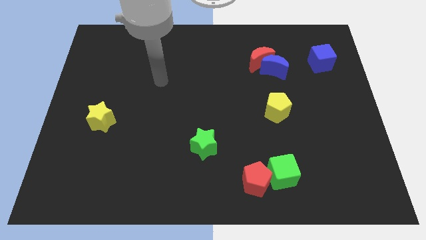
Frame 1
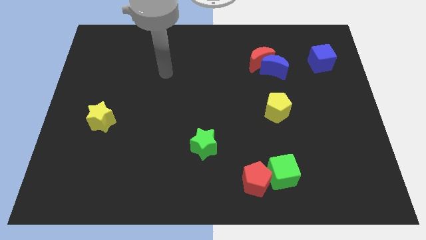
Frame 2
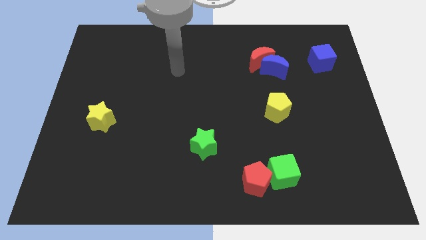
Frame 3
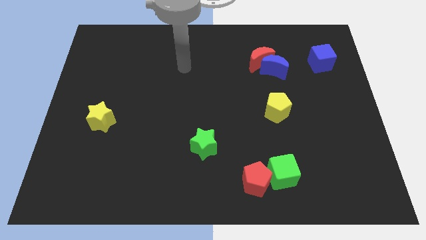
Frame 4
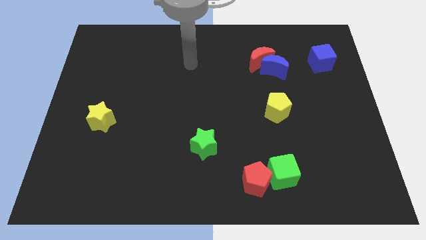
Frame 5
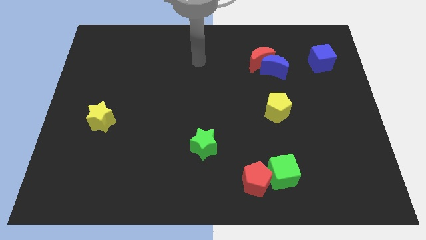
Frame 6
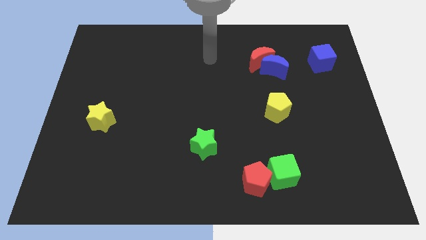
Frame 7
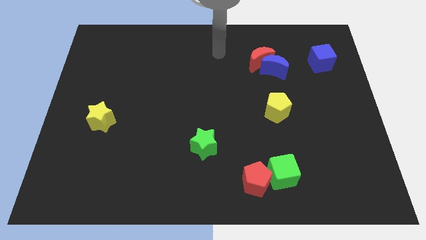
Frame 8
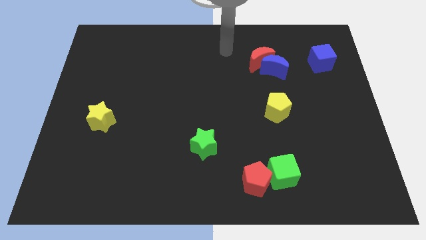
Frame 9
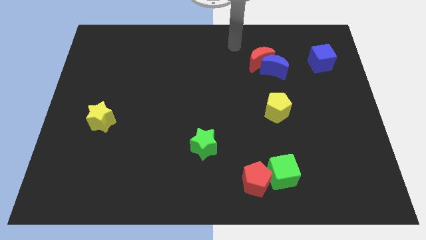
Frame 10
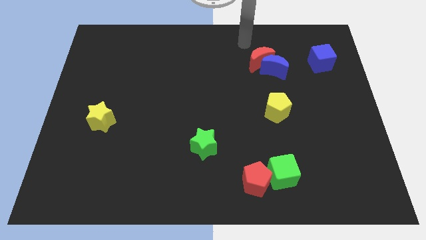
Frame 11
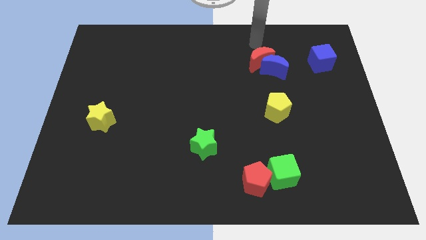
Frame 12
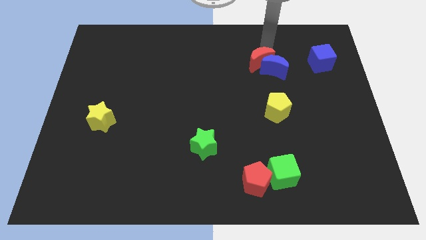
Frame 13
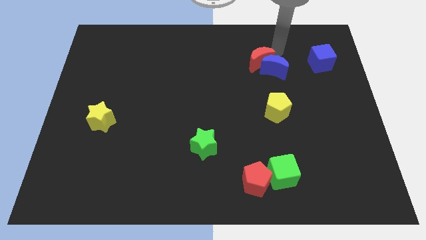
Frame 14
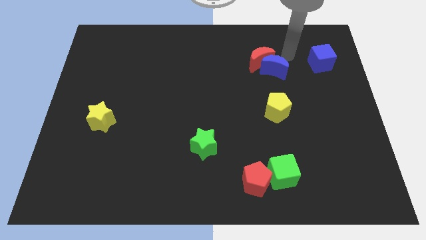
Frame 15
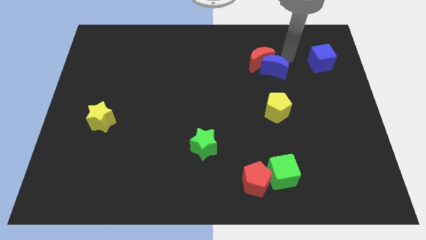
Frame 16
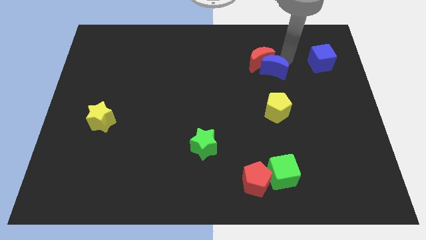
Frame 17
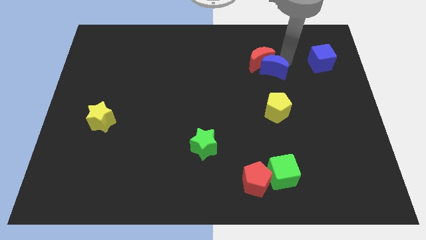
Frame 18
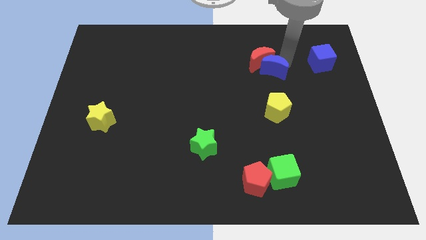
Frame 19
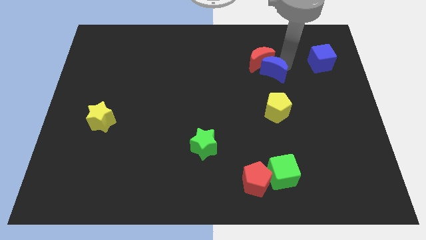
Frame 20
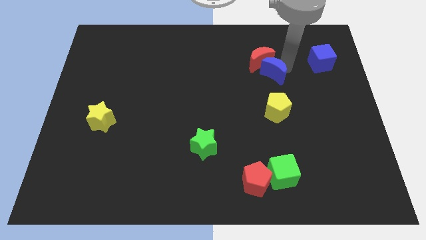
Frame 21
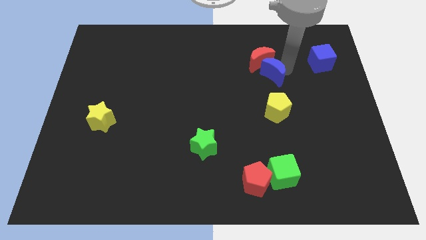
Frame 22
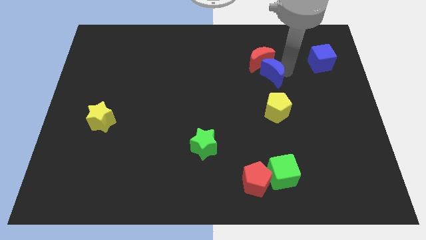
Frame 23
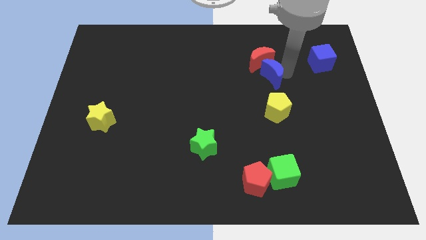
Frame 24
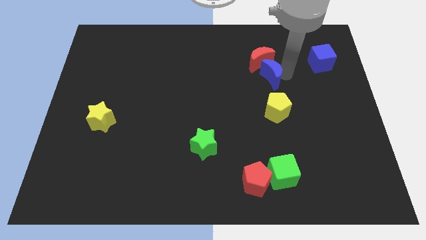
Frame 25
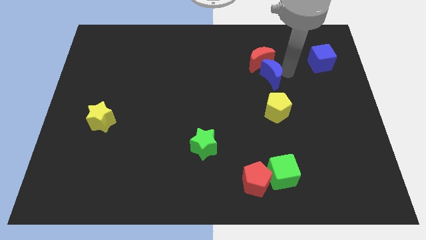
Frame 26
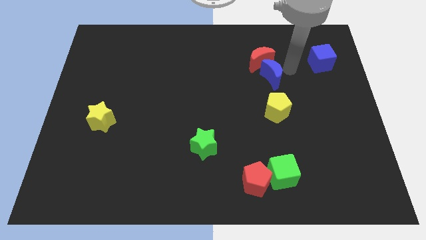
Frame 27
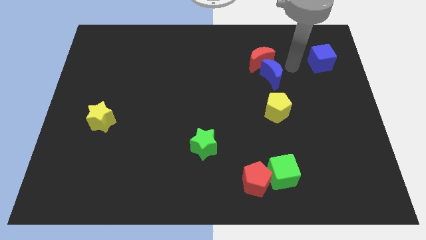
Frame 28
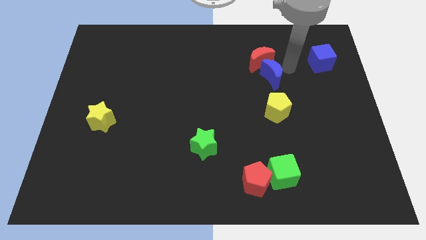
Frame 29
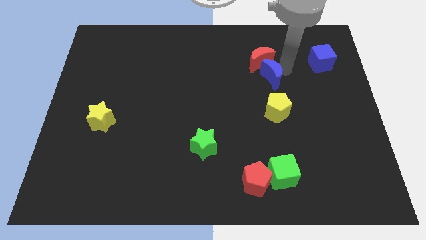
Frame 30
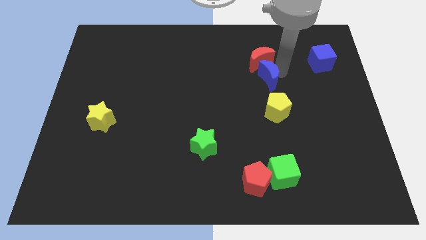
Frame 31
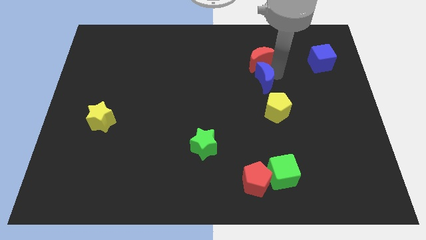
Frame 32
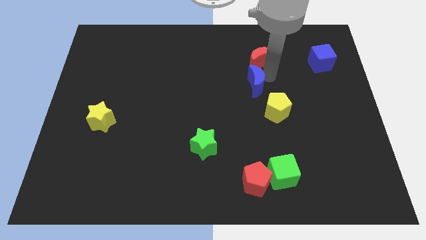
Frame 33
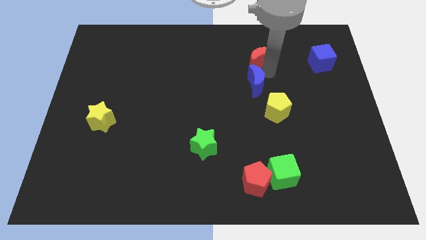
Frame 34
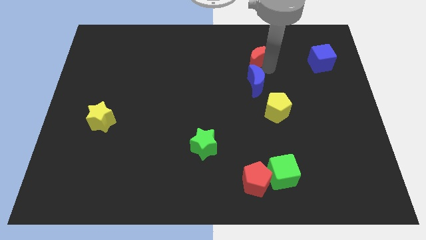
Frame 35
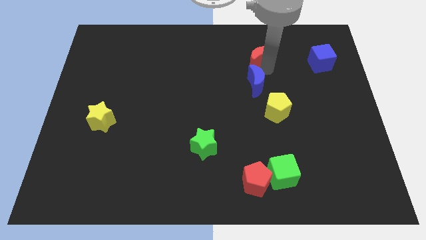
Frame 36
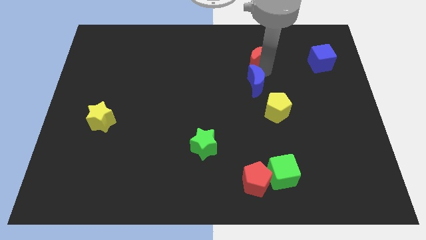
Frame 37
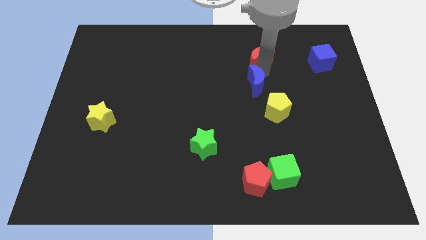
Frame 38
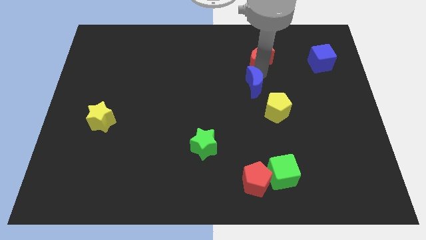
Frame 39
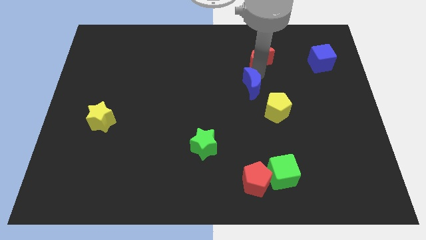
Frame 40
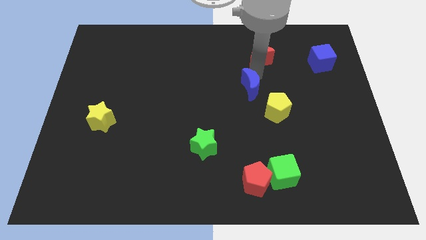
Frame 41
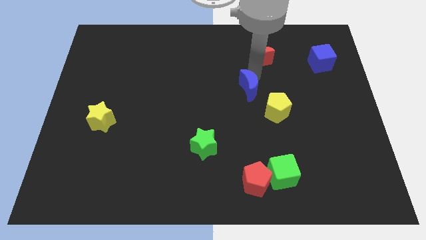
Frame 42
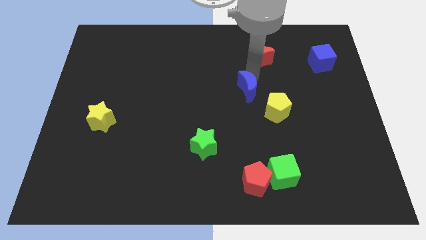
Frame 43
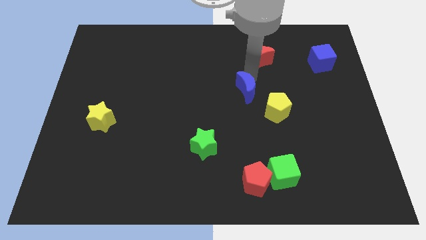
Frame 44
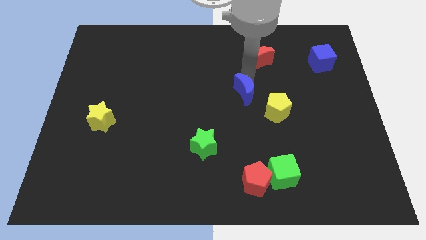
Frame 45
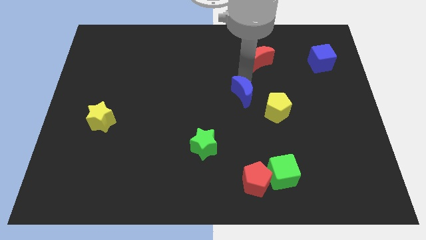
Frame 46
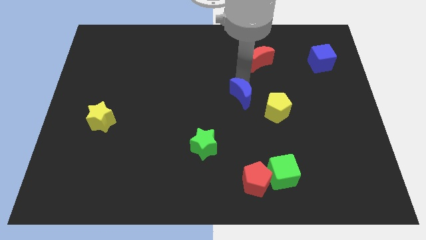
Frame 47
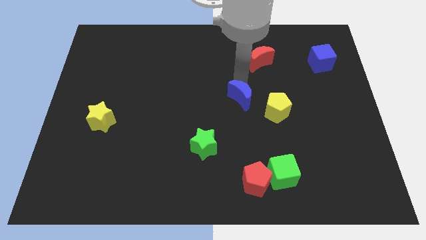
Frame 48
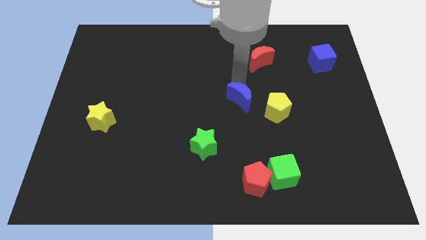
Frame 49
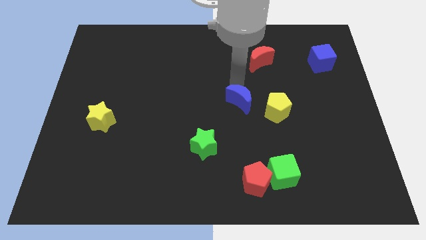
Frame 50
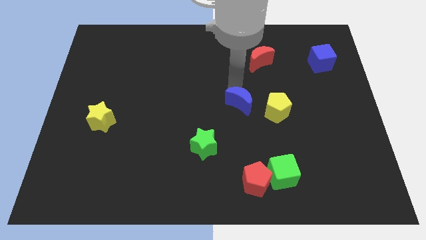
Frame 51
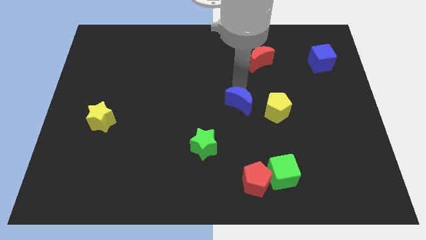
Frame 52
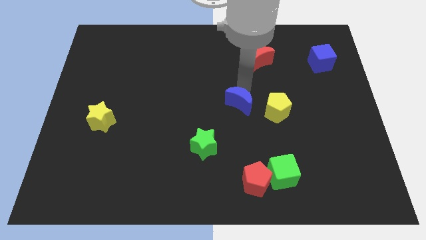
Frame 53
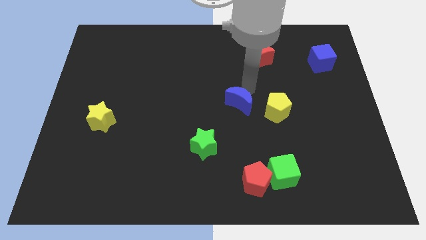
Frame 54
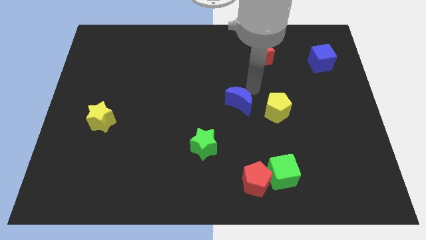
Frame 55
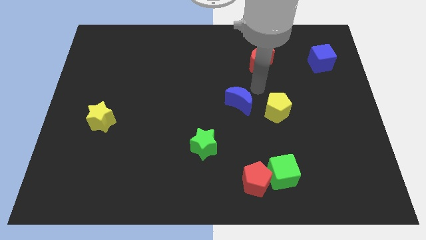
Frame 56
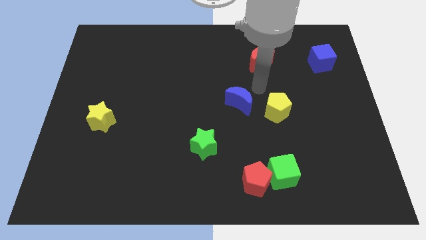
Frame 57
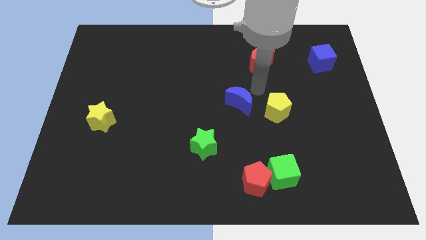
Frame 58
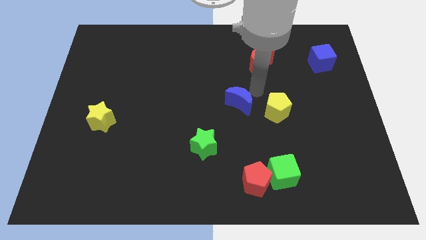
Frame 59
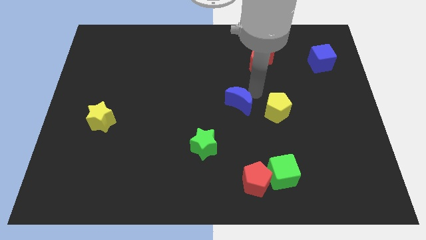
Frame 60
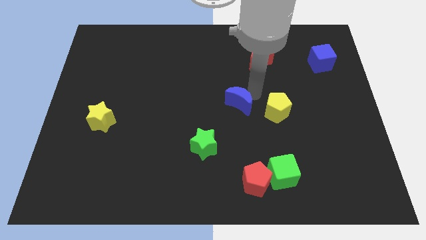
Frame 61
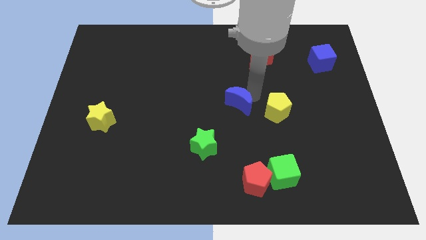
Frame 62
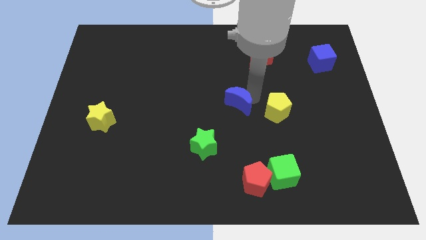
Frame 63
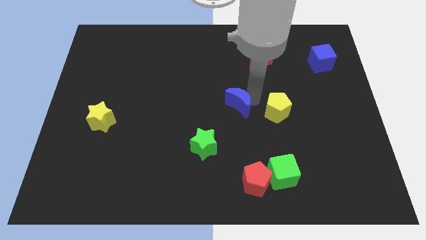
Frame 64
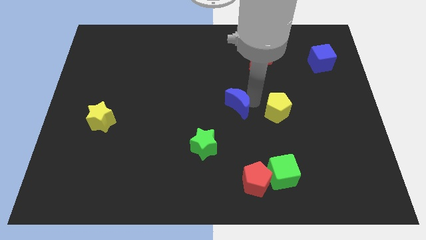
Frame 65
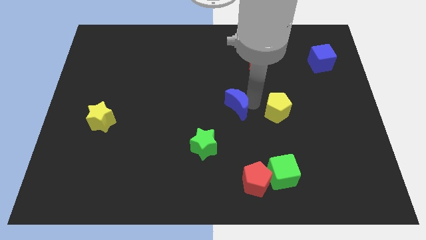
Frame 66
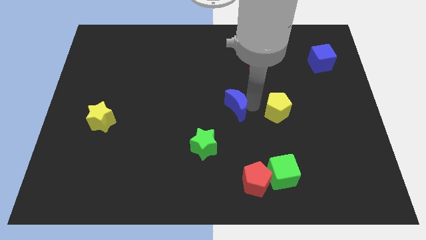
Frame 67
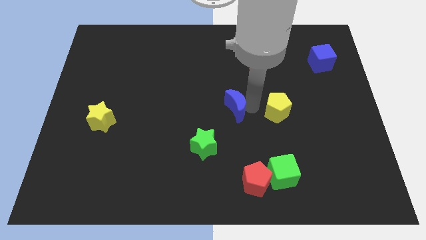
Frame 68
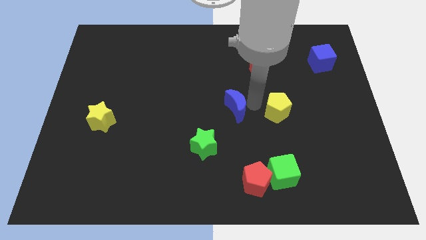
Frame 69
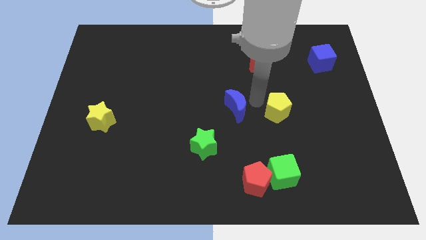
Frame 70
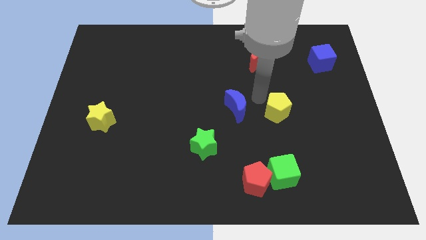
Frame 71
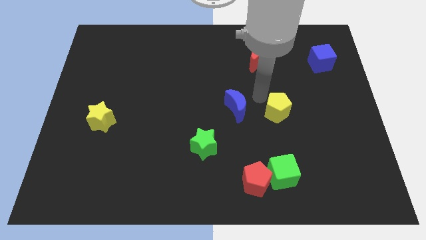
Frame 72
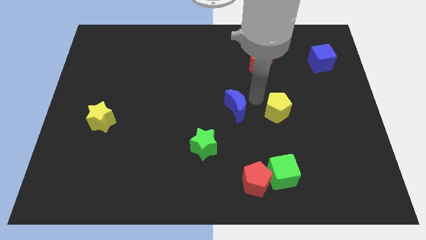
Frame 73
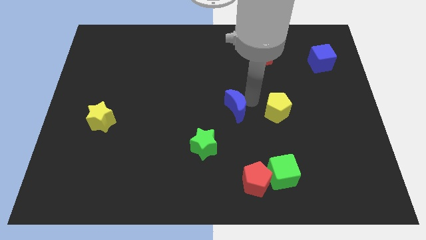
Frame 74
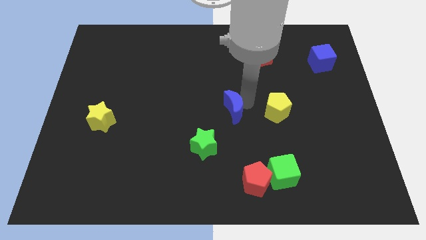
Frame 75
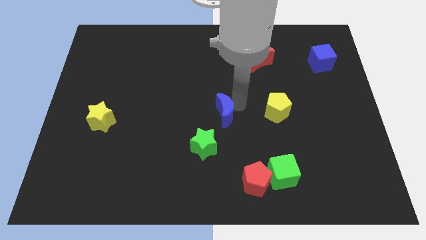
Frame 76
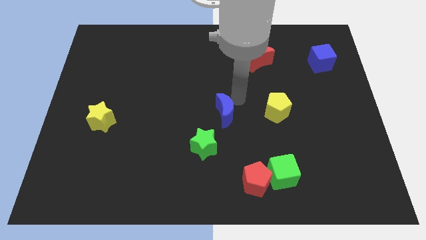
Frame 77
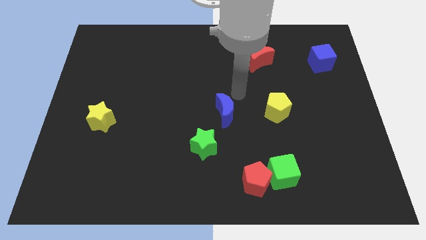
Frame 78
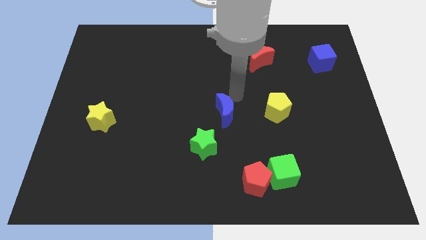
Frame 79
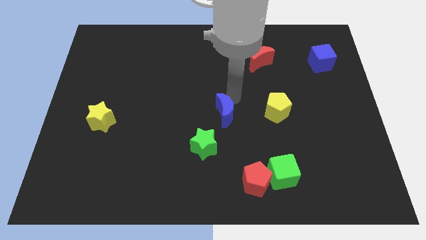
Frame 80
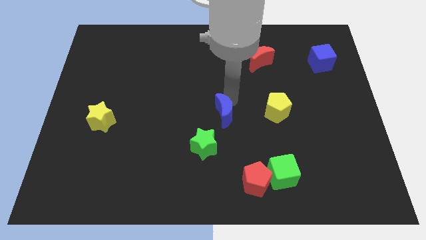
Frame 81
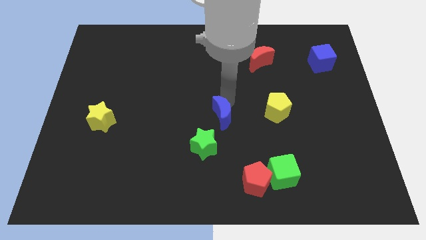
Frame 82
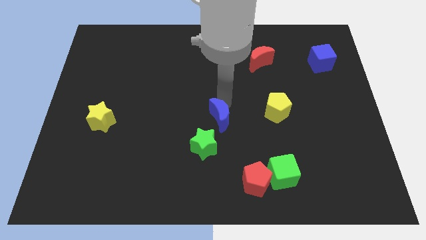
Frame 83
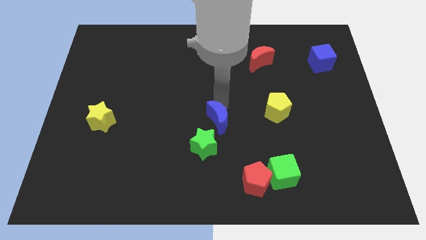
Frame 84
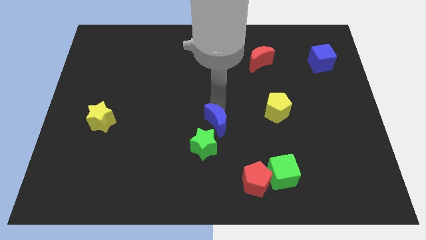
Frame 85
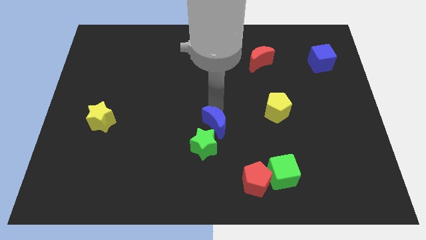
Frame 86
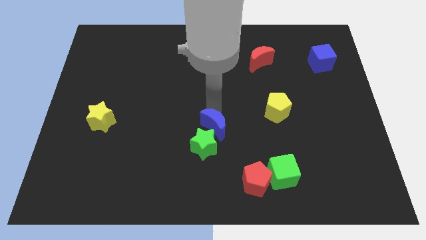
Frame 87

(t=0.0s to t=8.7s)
move the blue moon towards the green star
